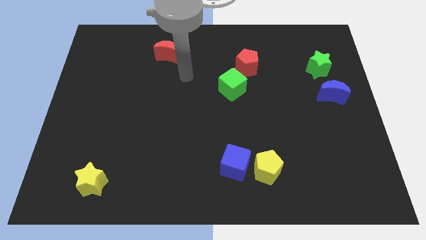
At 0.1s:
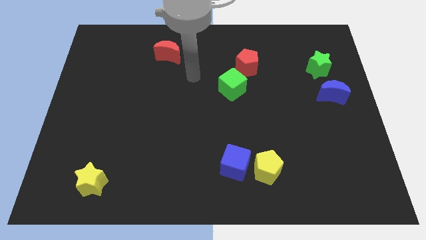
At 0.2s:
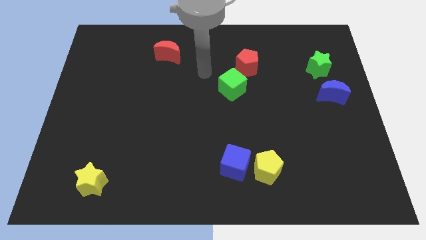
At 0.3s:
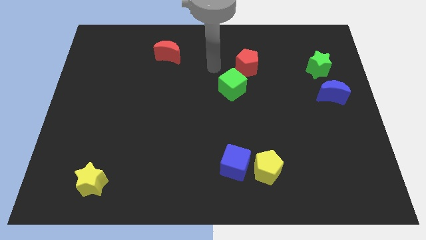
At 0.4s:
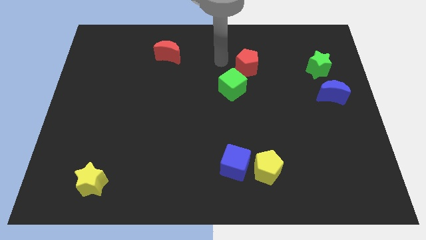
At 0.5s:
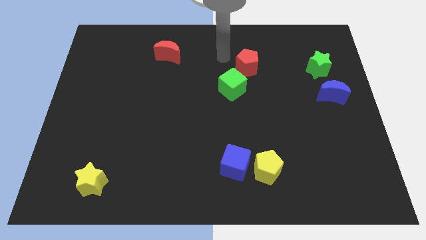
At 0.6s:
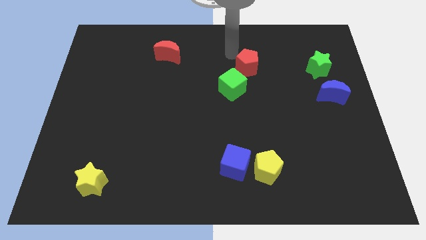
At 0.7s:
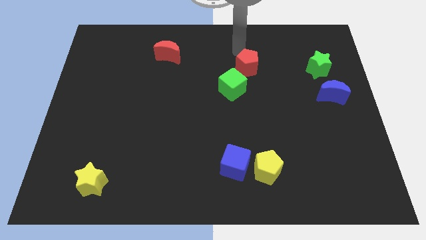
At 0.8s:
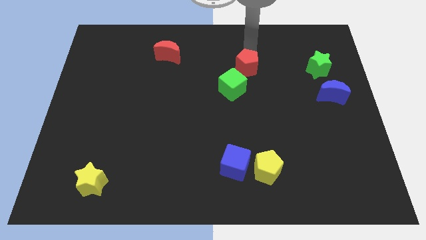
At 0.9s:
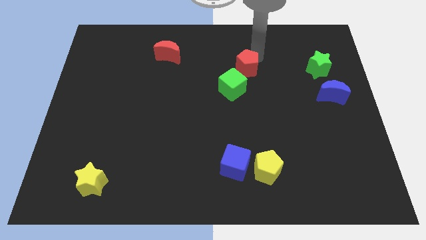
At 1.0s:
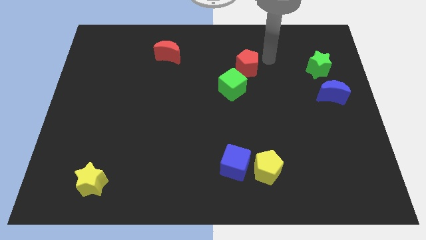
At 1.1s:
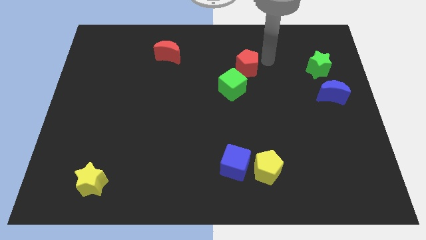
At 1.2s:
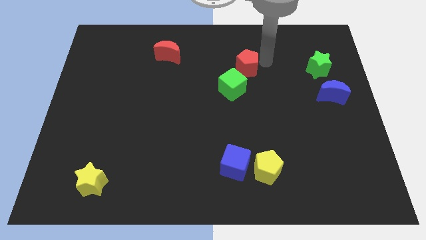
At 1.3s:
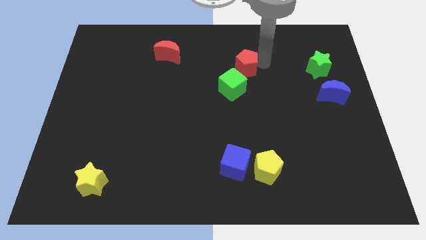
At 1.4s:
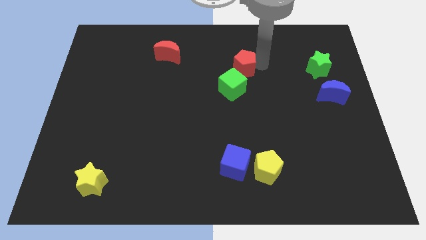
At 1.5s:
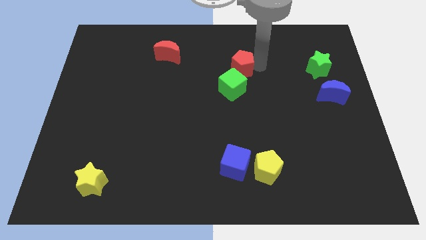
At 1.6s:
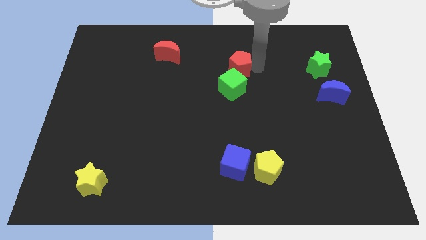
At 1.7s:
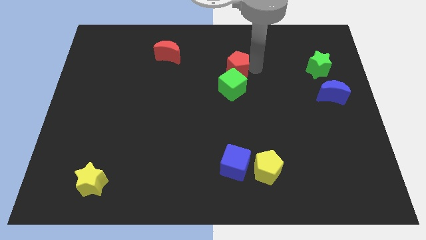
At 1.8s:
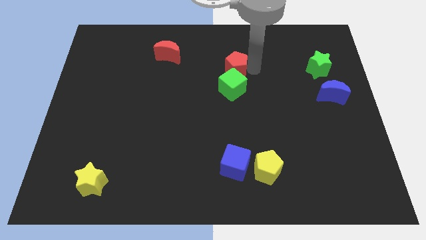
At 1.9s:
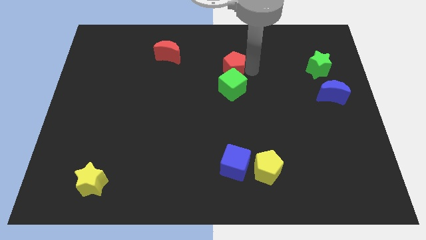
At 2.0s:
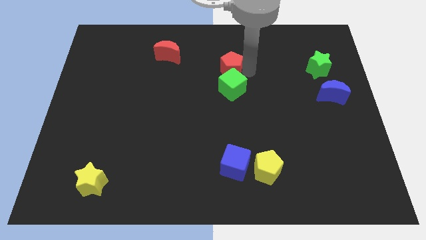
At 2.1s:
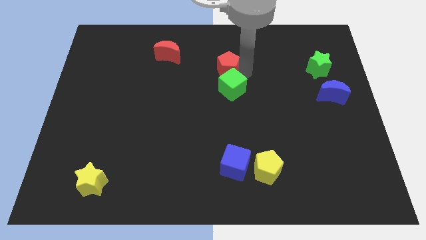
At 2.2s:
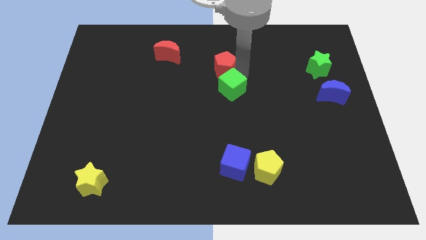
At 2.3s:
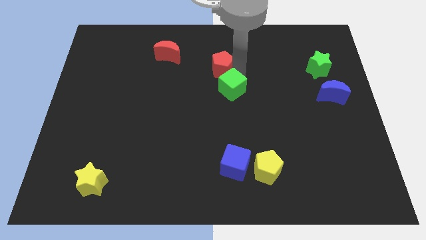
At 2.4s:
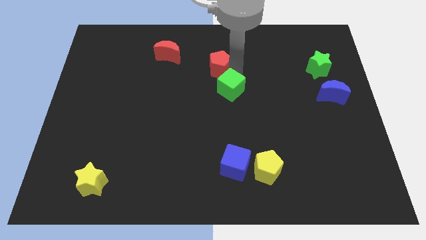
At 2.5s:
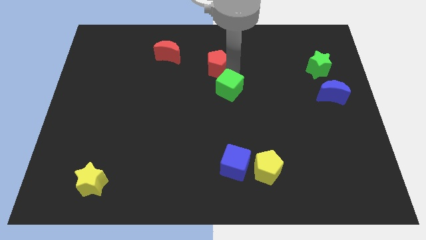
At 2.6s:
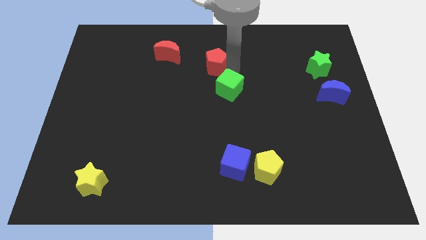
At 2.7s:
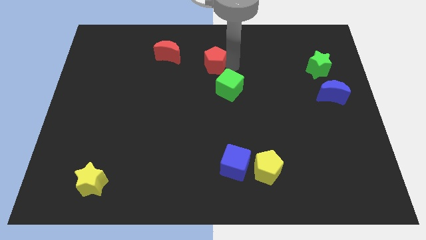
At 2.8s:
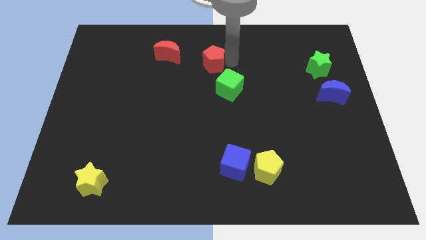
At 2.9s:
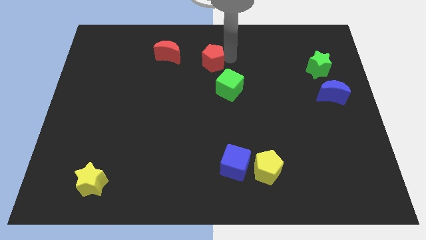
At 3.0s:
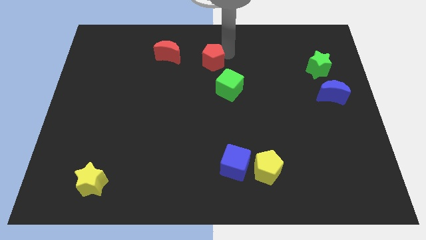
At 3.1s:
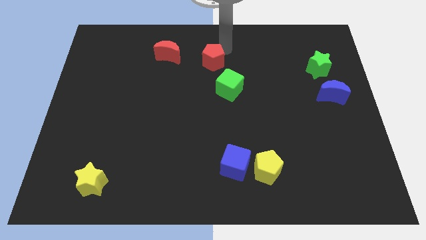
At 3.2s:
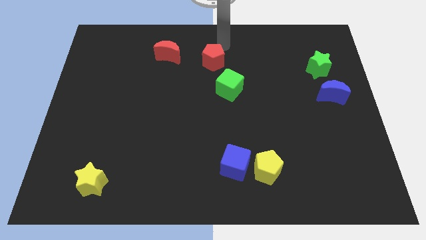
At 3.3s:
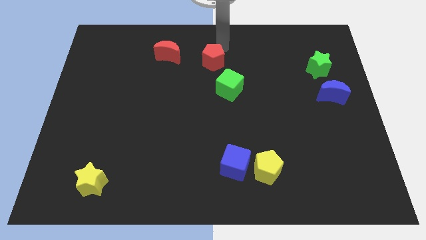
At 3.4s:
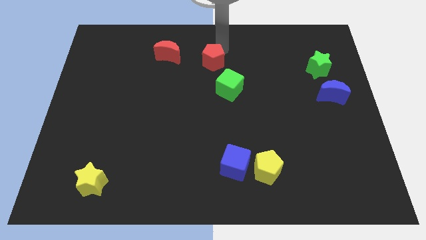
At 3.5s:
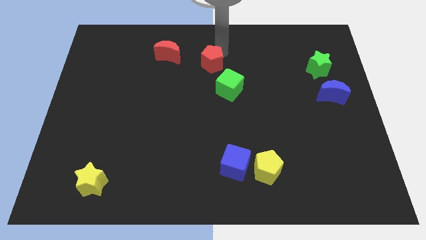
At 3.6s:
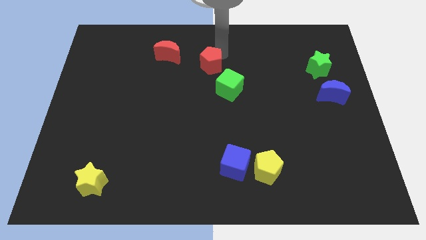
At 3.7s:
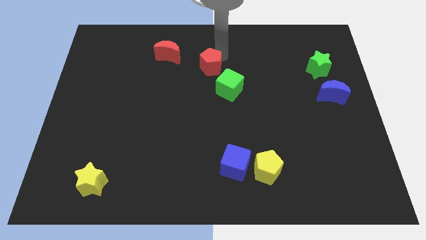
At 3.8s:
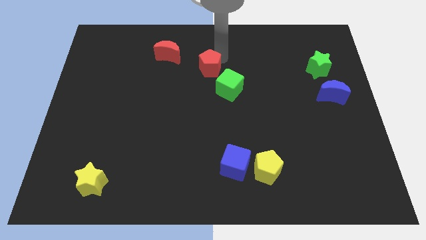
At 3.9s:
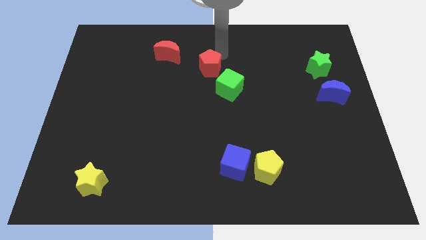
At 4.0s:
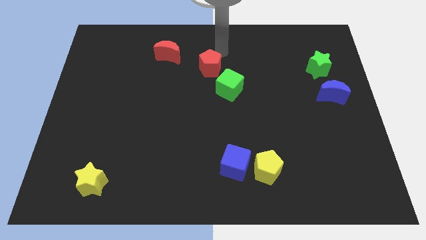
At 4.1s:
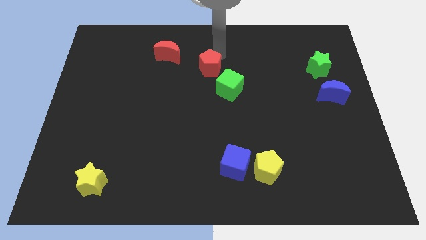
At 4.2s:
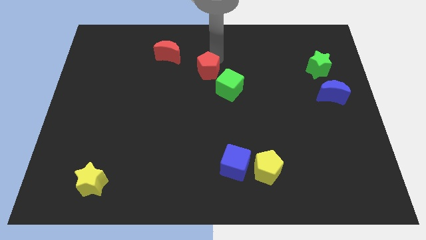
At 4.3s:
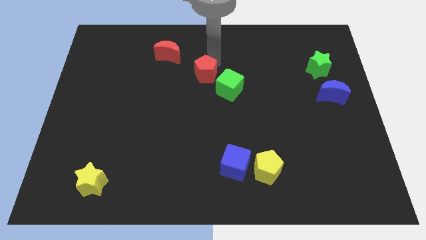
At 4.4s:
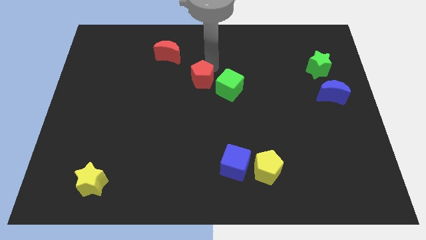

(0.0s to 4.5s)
move the red pentagon left of the green cube

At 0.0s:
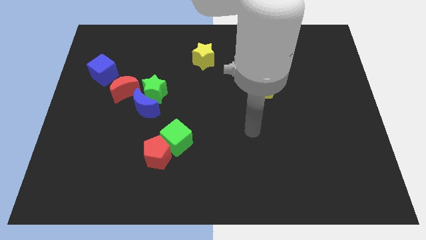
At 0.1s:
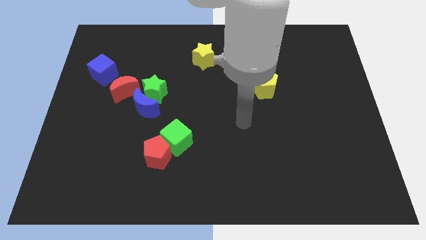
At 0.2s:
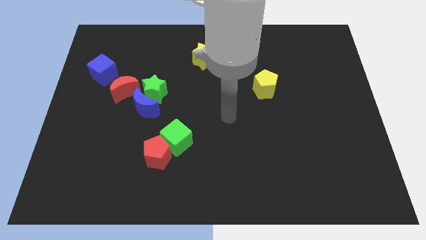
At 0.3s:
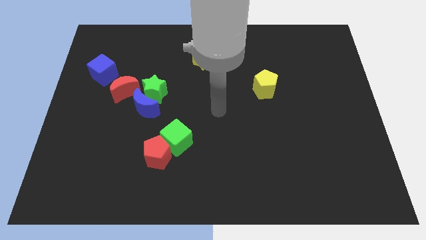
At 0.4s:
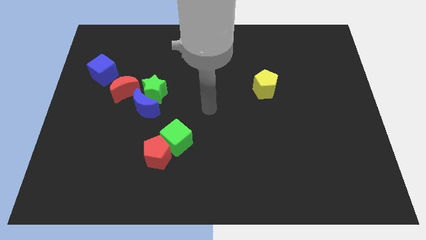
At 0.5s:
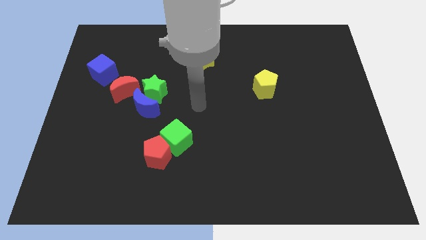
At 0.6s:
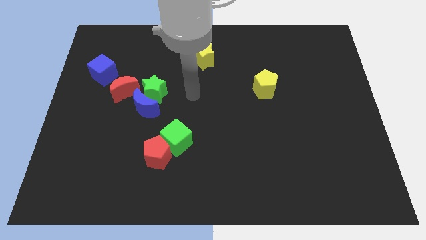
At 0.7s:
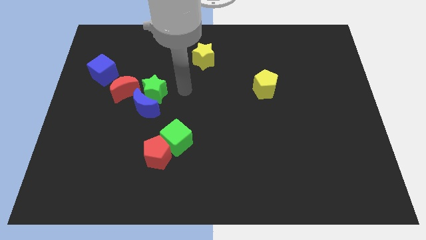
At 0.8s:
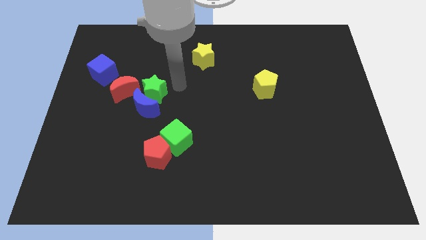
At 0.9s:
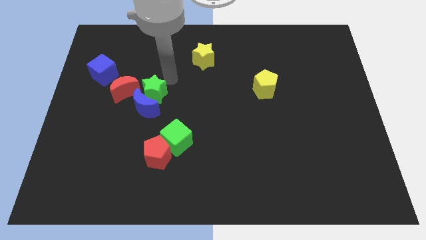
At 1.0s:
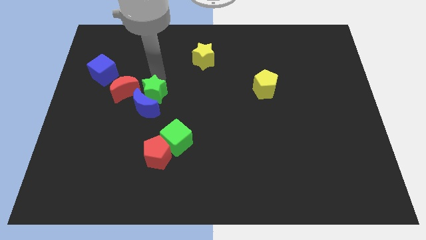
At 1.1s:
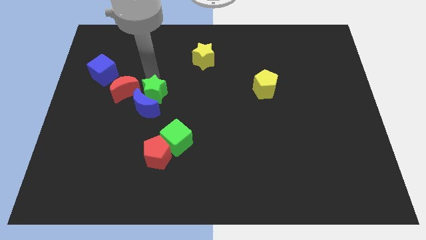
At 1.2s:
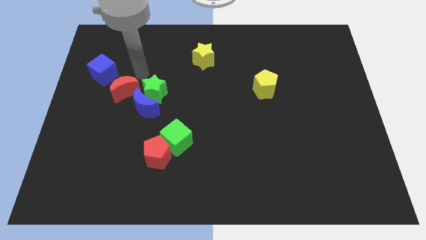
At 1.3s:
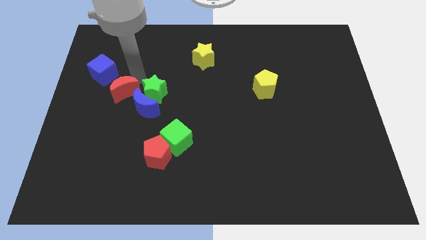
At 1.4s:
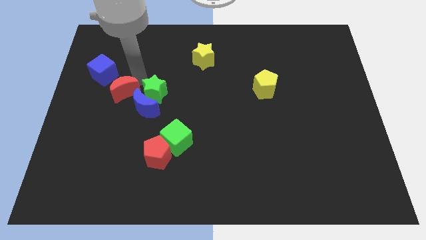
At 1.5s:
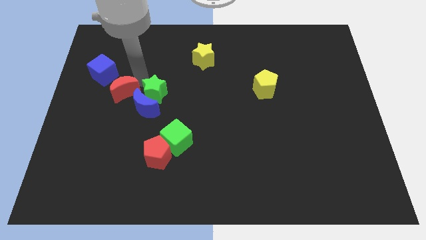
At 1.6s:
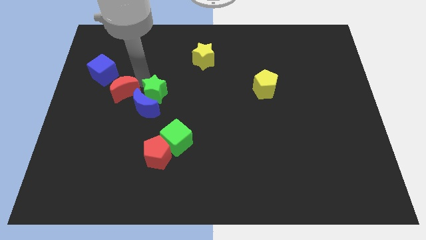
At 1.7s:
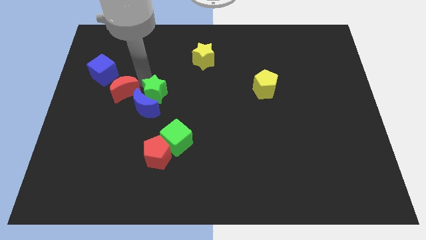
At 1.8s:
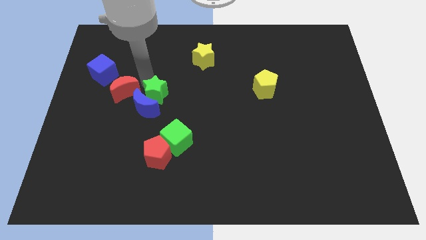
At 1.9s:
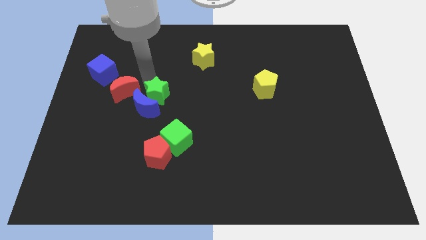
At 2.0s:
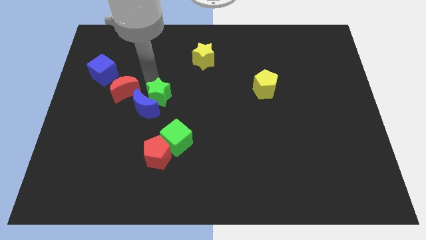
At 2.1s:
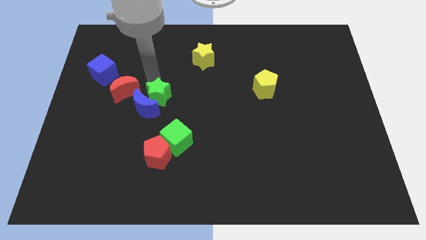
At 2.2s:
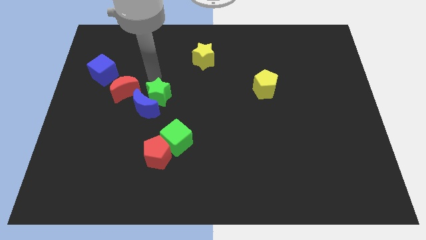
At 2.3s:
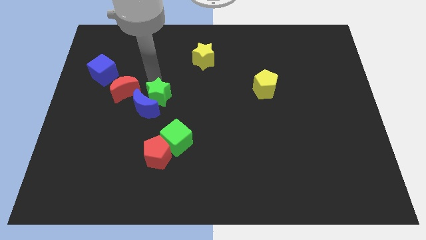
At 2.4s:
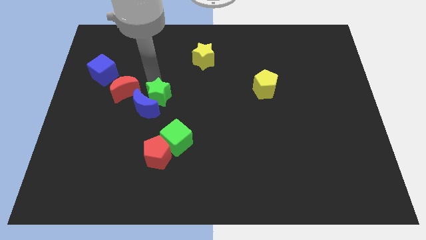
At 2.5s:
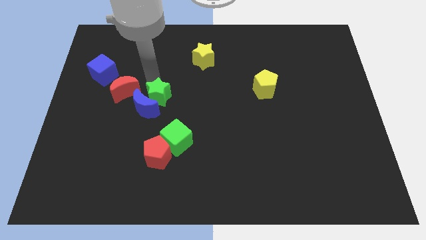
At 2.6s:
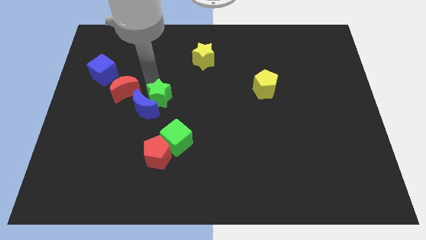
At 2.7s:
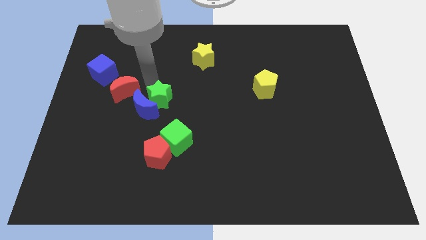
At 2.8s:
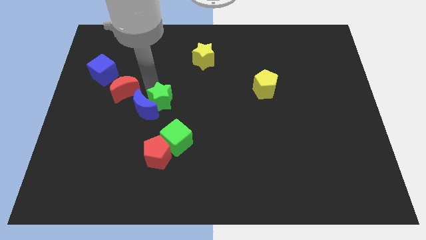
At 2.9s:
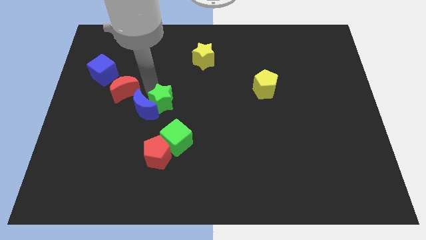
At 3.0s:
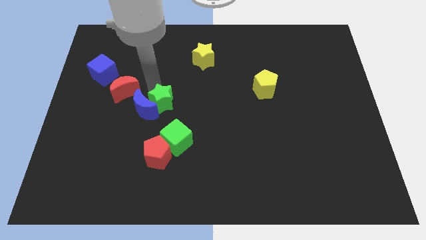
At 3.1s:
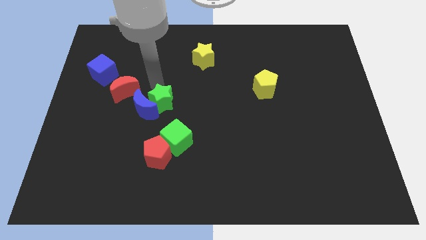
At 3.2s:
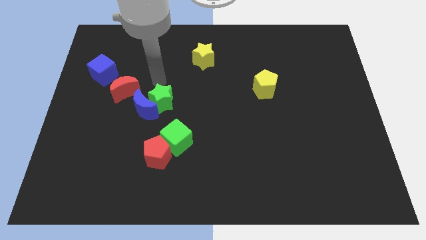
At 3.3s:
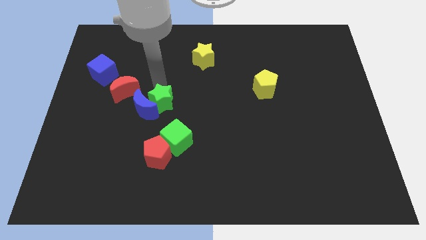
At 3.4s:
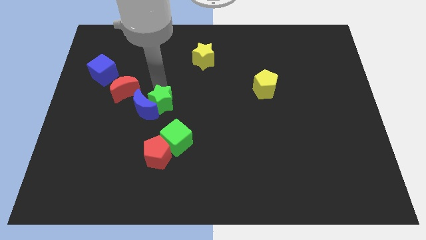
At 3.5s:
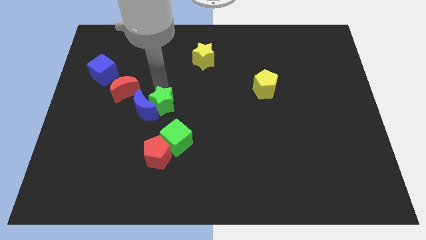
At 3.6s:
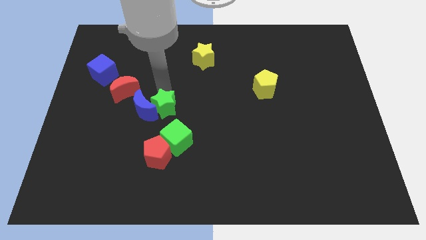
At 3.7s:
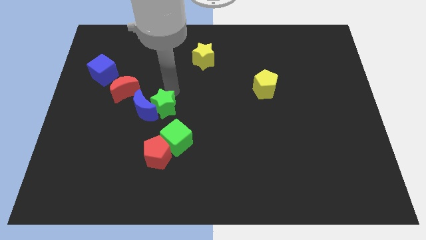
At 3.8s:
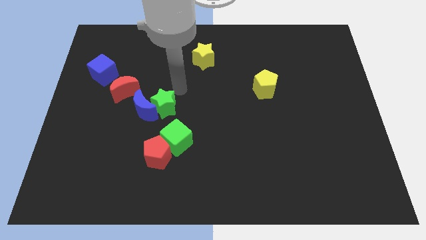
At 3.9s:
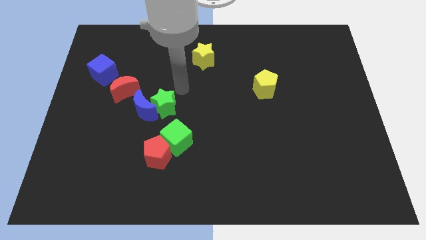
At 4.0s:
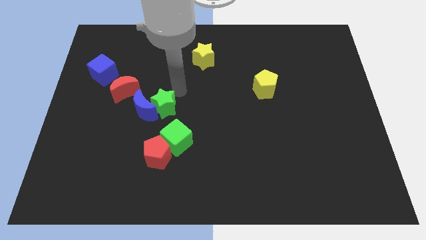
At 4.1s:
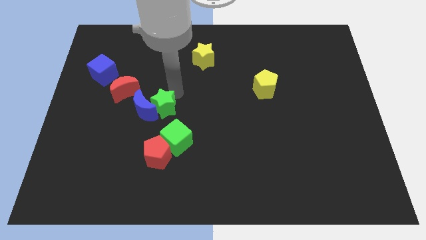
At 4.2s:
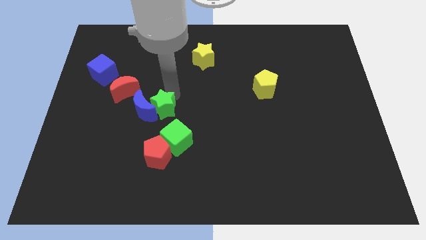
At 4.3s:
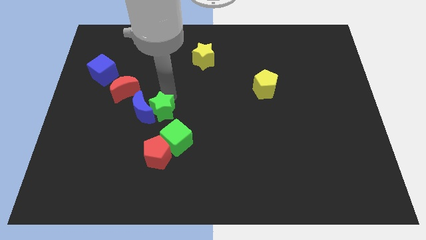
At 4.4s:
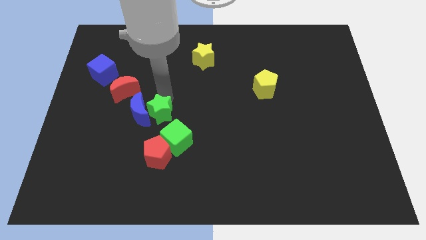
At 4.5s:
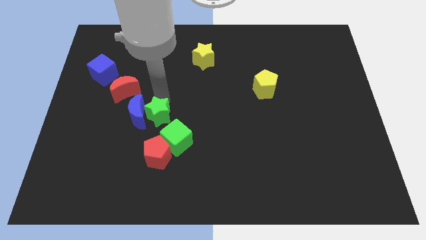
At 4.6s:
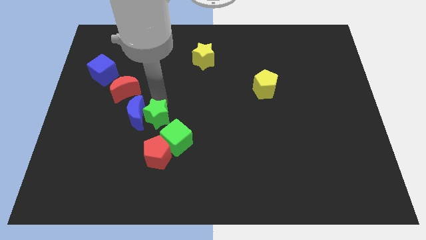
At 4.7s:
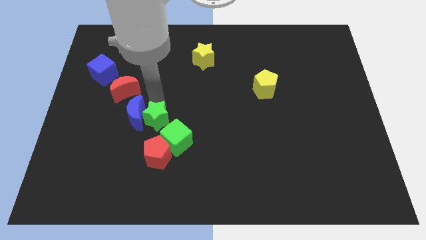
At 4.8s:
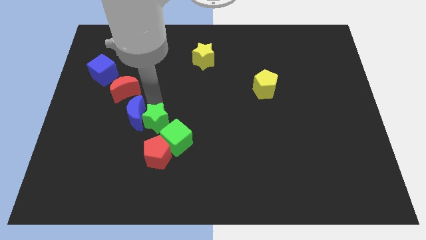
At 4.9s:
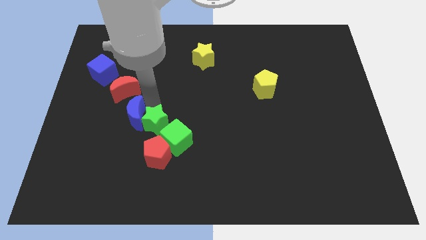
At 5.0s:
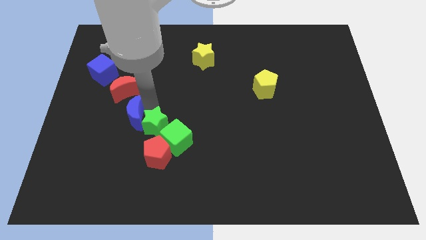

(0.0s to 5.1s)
move the green star diagonally up and to the left of the red pentagon
